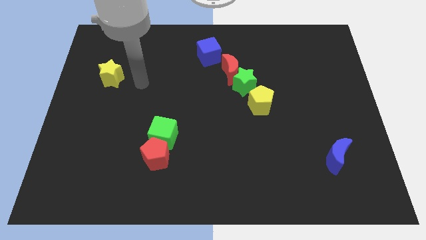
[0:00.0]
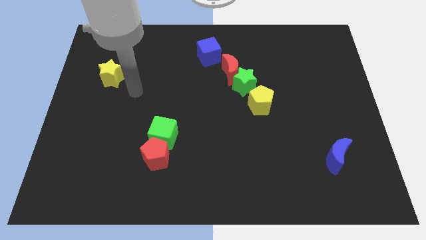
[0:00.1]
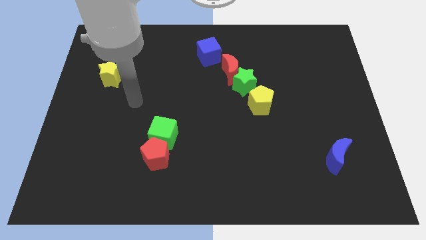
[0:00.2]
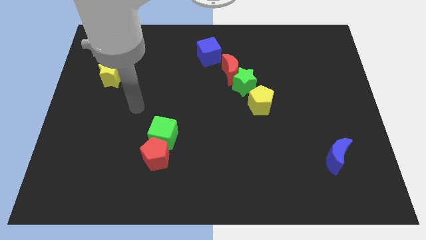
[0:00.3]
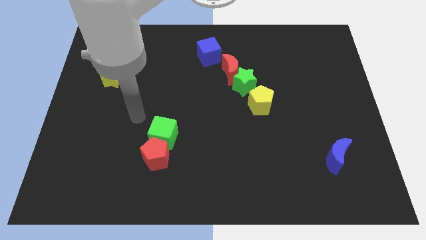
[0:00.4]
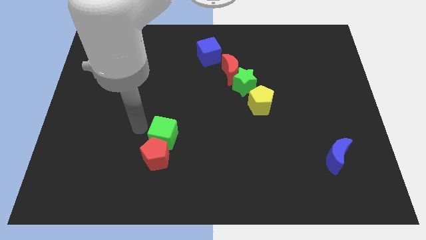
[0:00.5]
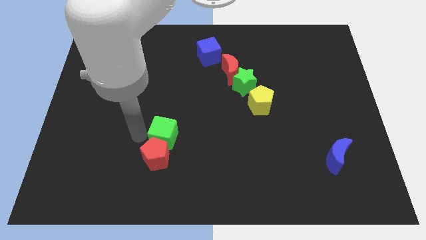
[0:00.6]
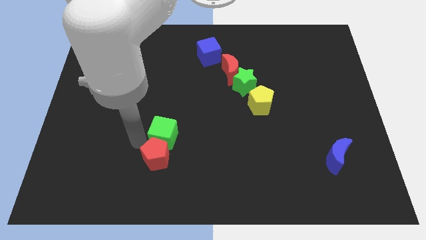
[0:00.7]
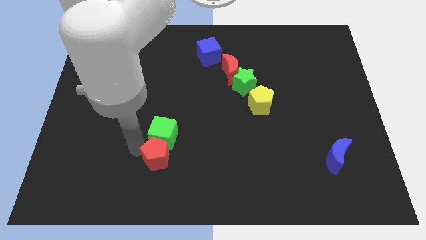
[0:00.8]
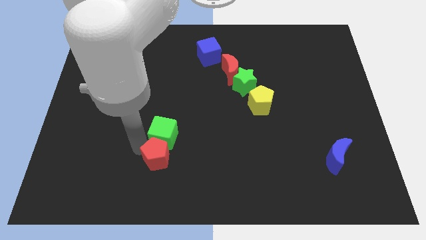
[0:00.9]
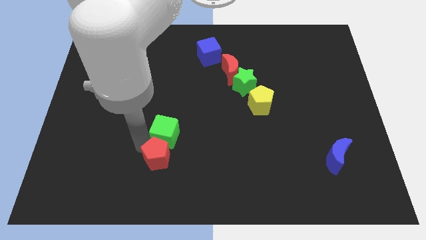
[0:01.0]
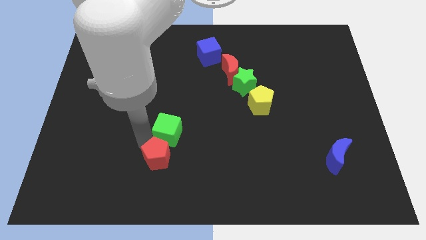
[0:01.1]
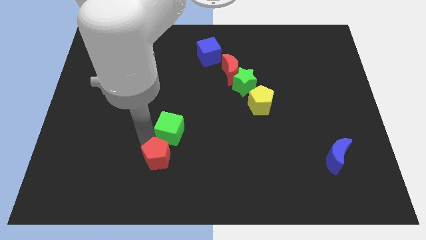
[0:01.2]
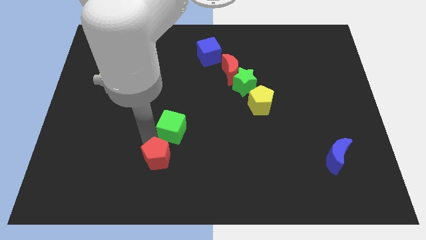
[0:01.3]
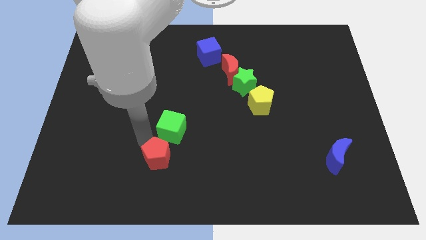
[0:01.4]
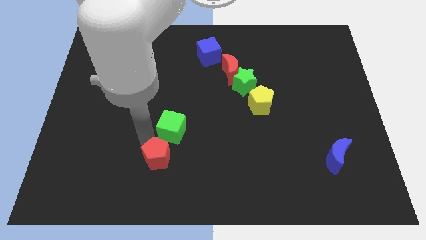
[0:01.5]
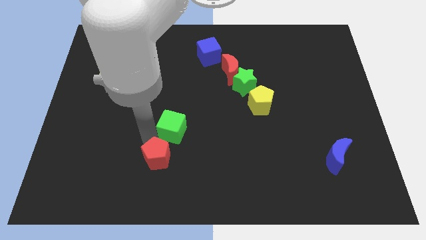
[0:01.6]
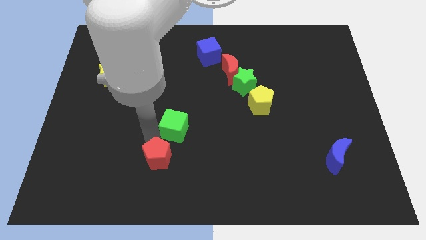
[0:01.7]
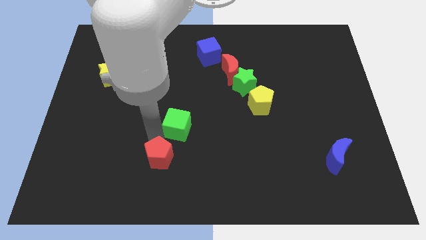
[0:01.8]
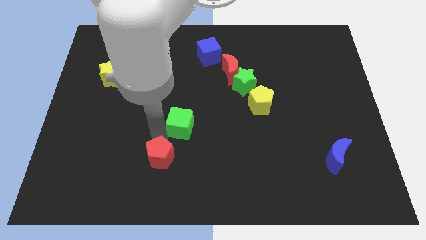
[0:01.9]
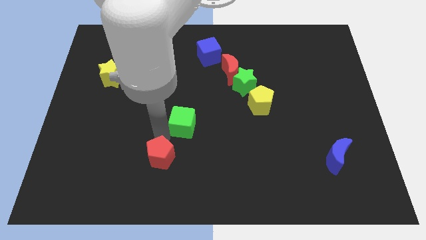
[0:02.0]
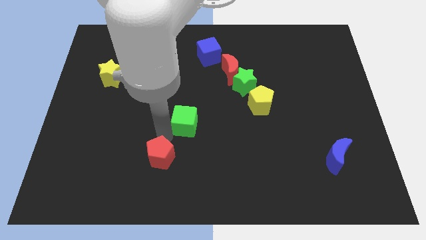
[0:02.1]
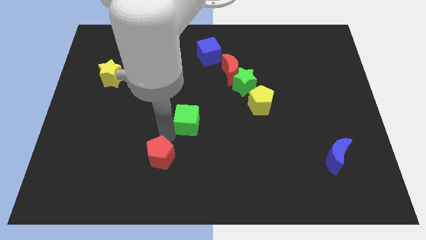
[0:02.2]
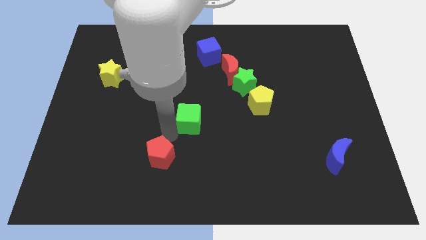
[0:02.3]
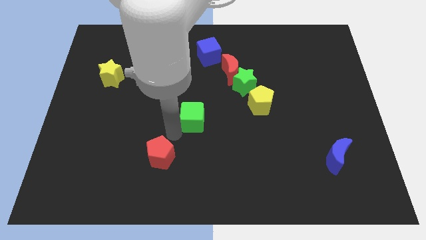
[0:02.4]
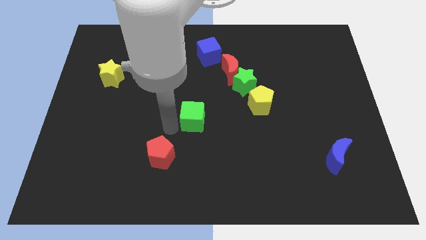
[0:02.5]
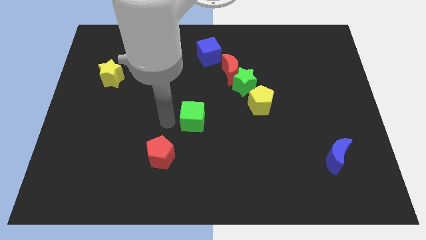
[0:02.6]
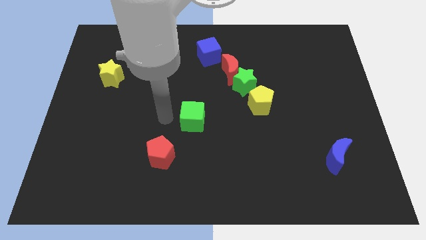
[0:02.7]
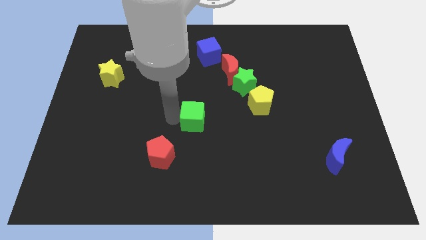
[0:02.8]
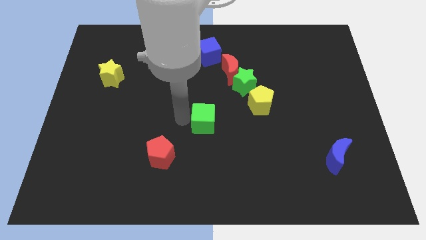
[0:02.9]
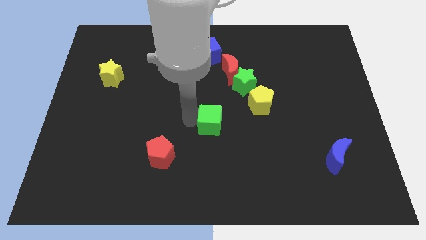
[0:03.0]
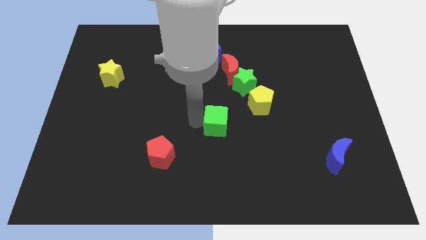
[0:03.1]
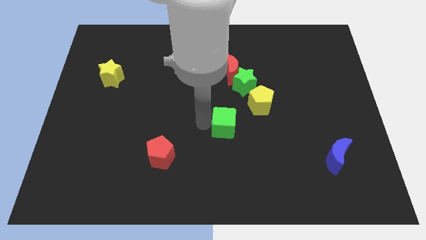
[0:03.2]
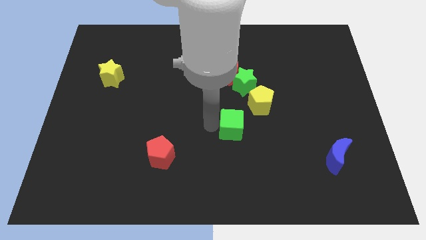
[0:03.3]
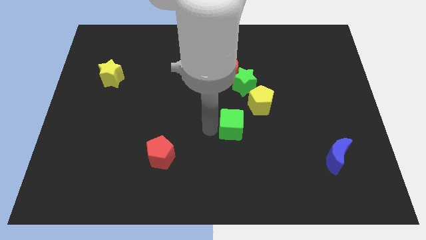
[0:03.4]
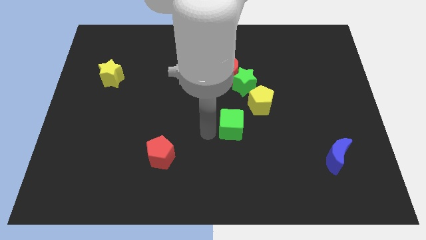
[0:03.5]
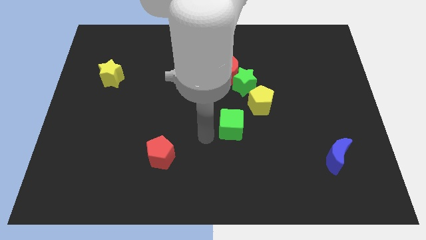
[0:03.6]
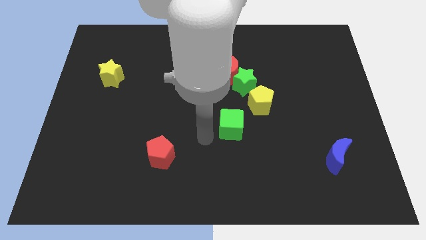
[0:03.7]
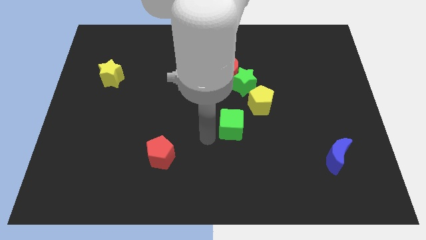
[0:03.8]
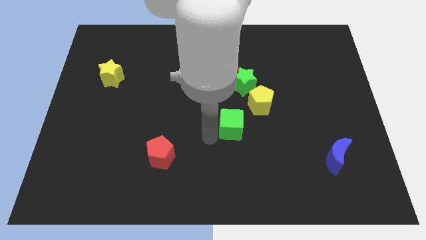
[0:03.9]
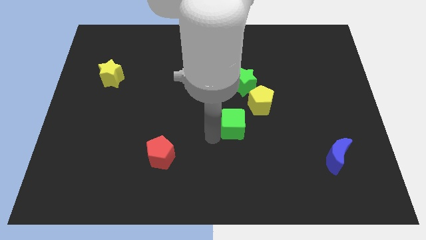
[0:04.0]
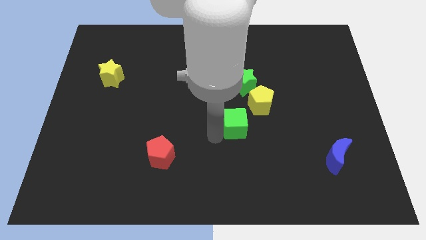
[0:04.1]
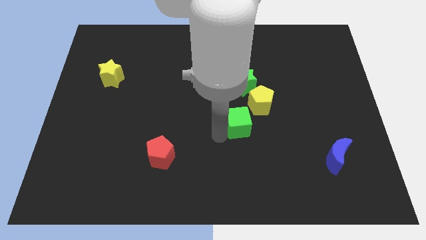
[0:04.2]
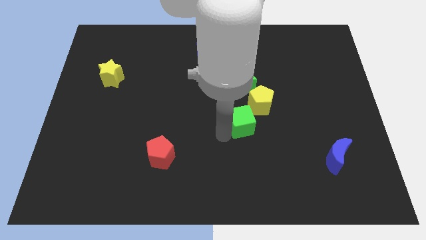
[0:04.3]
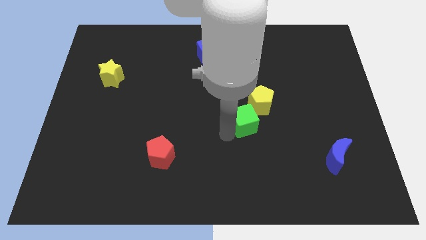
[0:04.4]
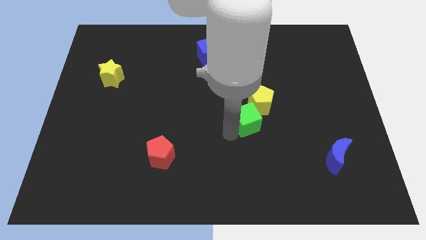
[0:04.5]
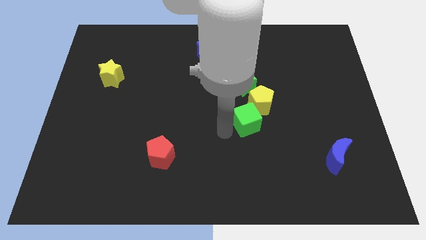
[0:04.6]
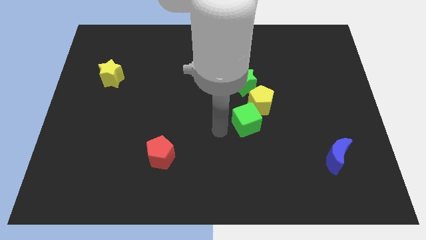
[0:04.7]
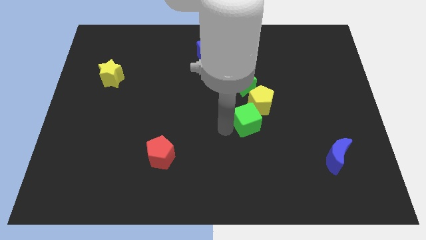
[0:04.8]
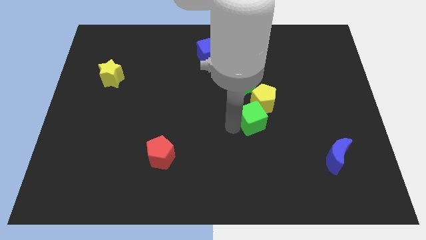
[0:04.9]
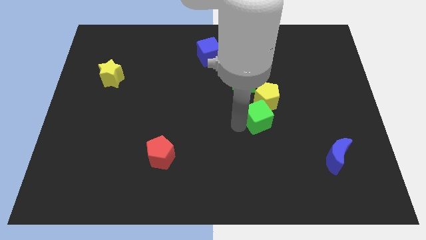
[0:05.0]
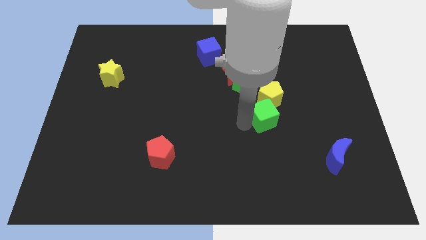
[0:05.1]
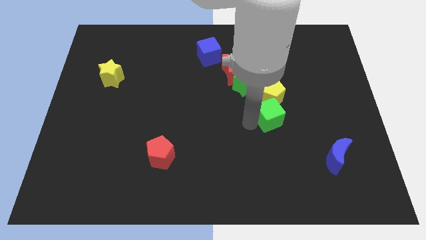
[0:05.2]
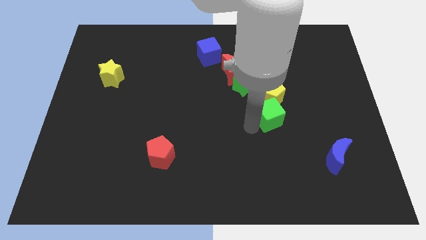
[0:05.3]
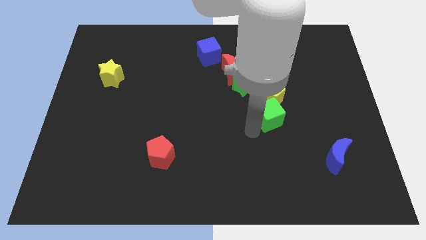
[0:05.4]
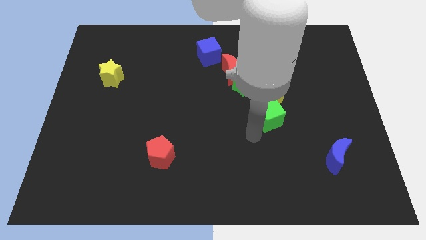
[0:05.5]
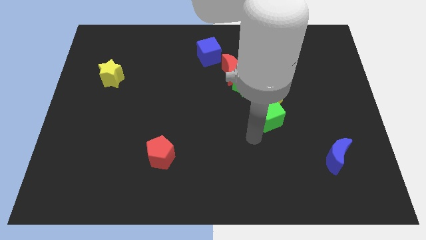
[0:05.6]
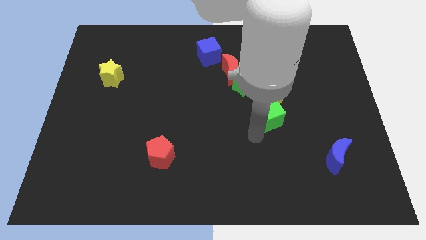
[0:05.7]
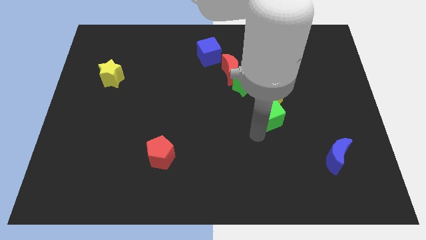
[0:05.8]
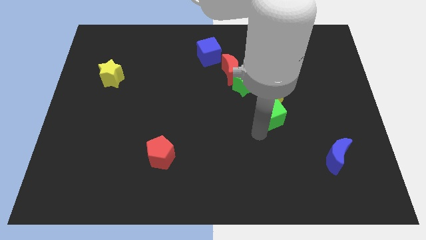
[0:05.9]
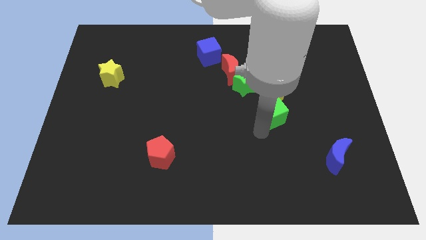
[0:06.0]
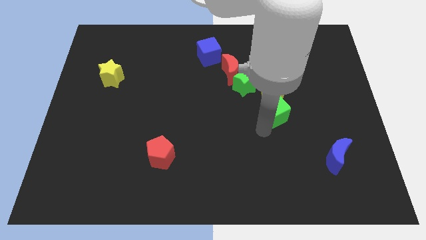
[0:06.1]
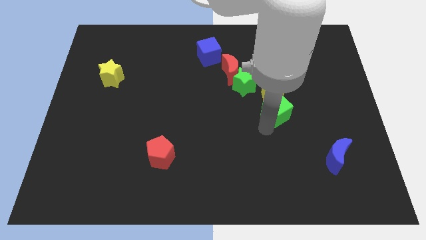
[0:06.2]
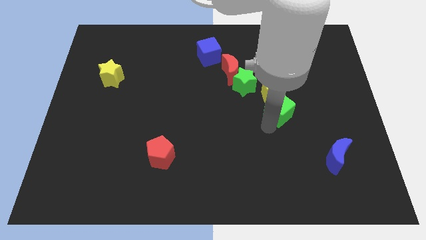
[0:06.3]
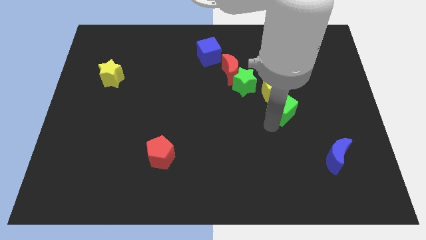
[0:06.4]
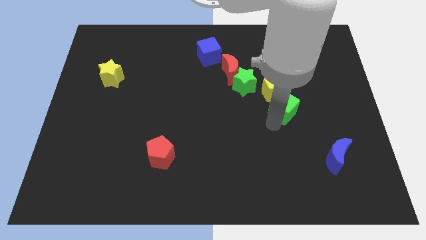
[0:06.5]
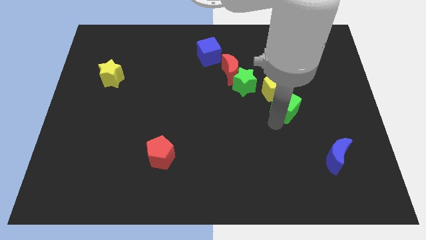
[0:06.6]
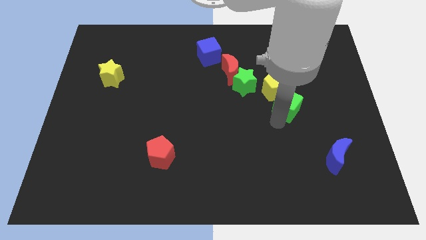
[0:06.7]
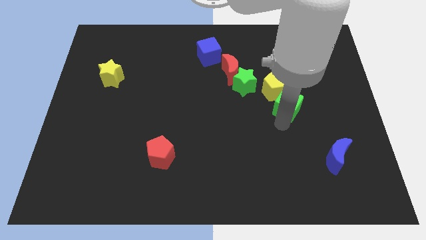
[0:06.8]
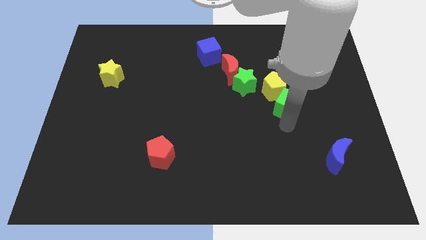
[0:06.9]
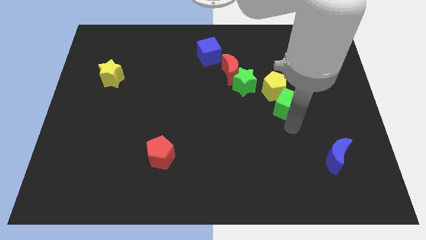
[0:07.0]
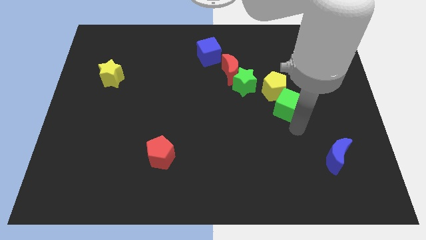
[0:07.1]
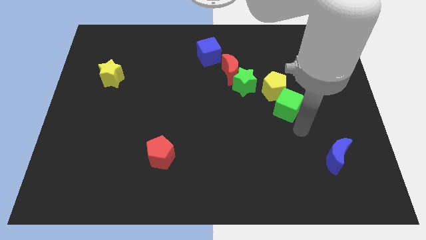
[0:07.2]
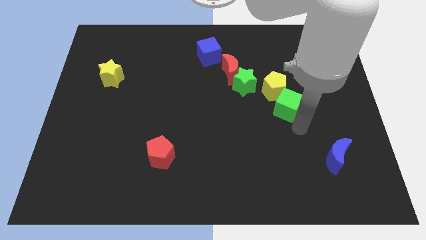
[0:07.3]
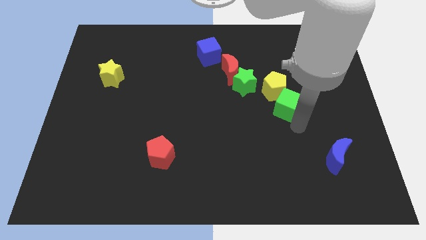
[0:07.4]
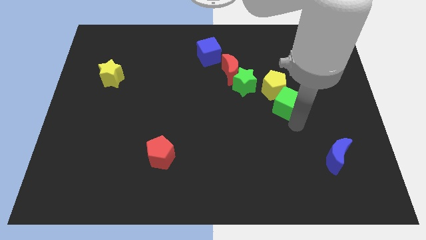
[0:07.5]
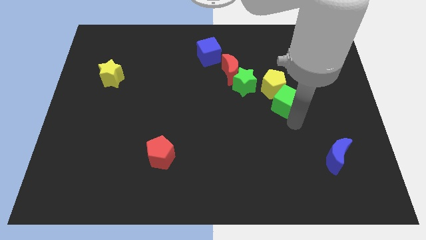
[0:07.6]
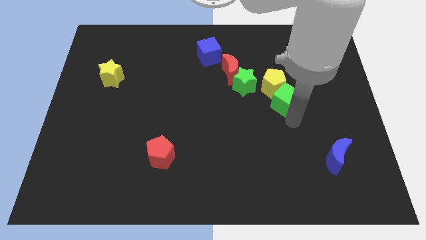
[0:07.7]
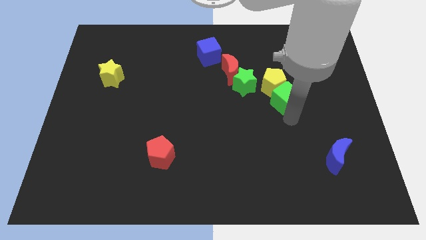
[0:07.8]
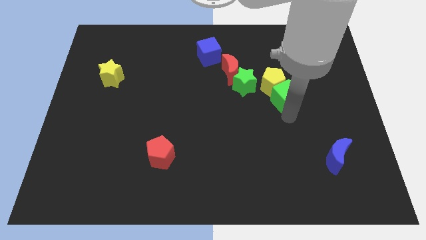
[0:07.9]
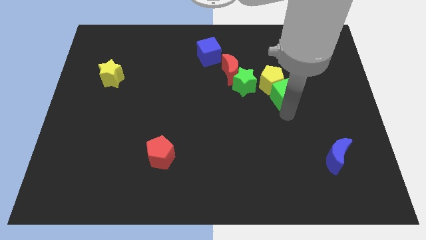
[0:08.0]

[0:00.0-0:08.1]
push the green cube upwards and then to the right
